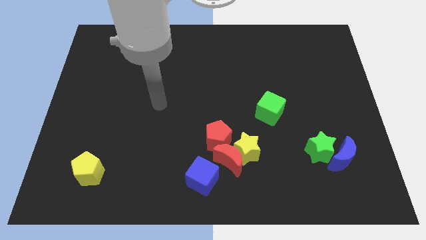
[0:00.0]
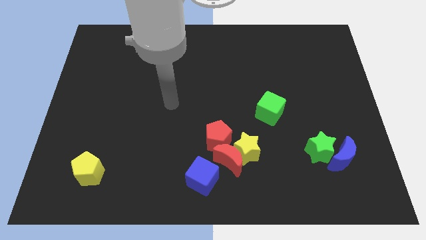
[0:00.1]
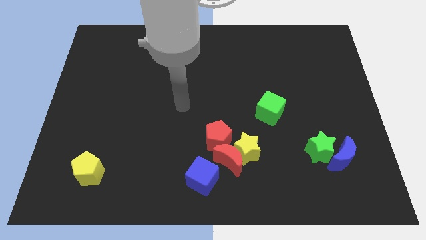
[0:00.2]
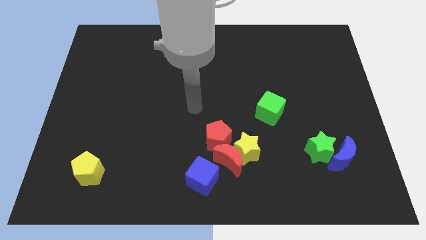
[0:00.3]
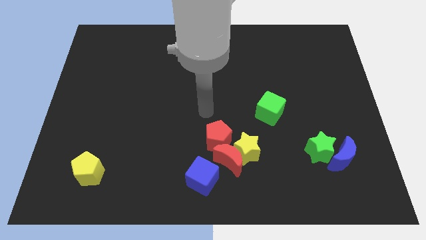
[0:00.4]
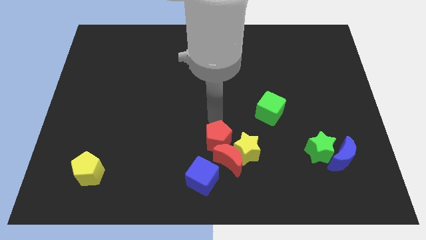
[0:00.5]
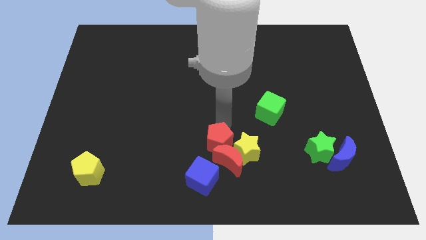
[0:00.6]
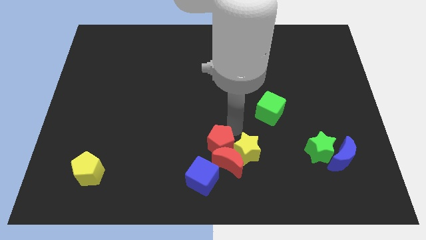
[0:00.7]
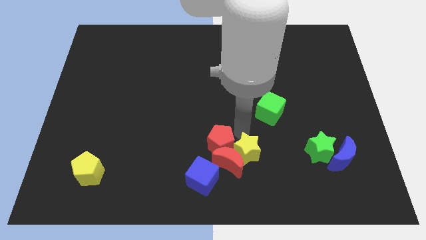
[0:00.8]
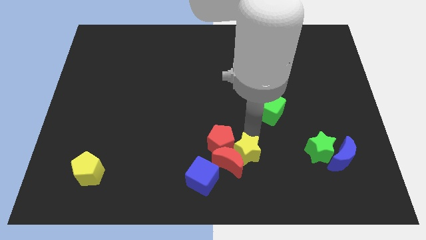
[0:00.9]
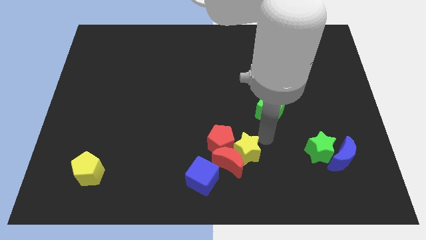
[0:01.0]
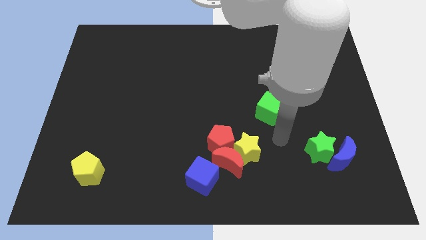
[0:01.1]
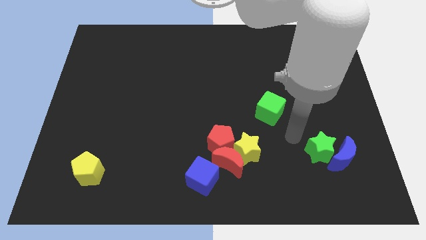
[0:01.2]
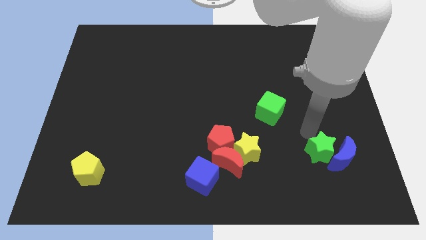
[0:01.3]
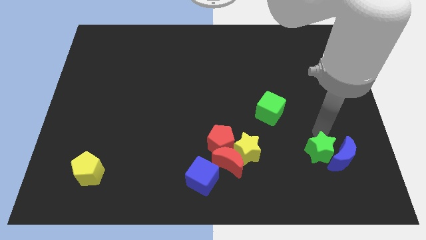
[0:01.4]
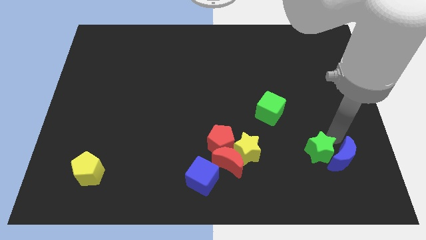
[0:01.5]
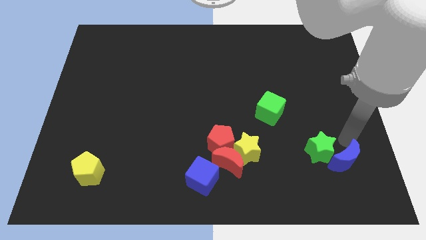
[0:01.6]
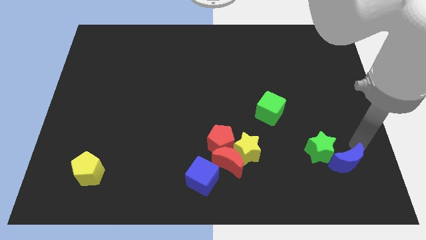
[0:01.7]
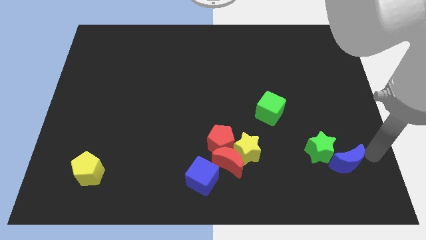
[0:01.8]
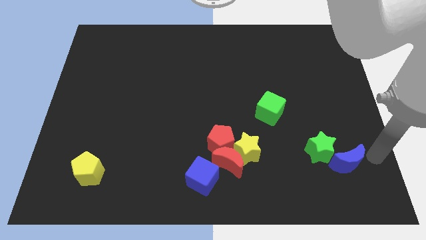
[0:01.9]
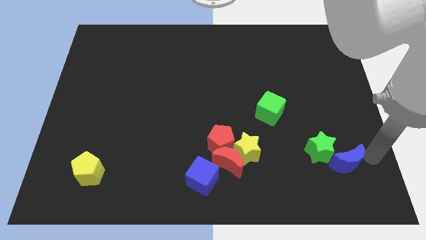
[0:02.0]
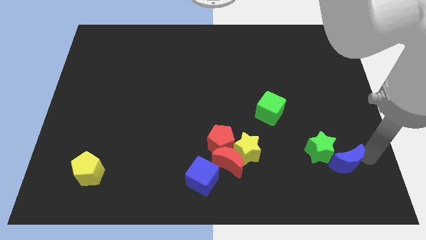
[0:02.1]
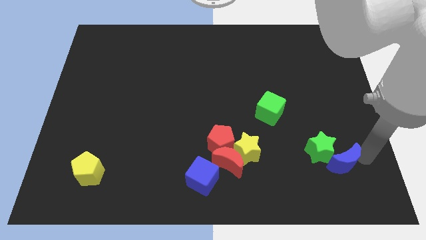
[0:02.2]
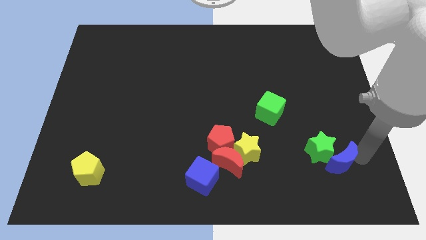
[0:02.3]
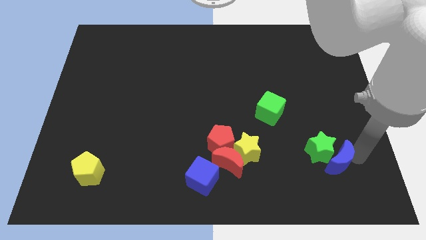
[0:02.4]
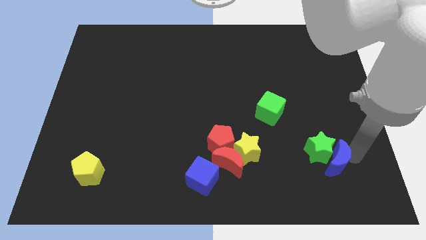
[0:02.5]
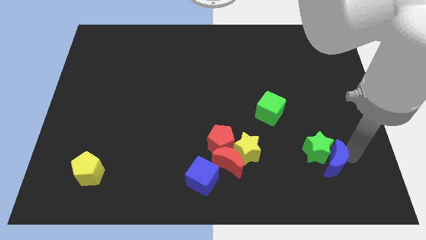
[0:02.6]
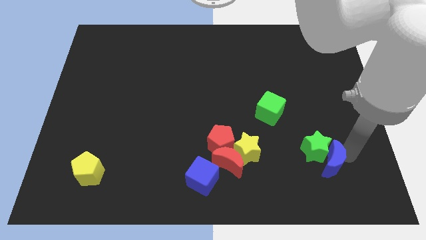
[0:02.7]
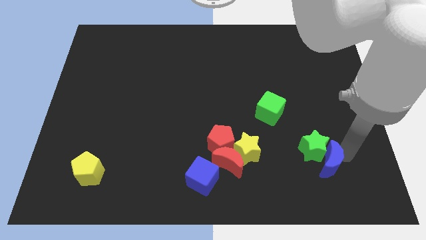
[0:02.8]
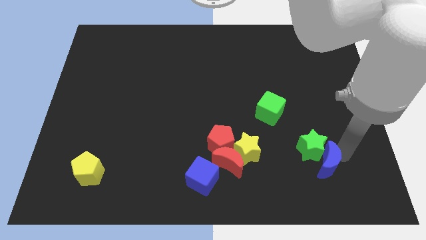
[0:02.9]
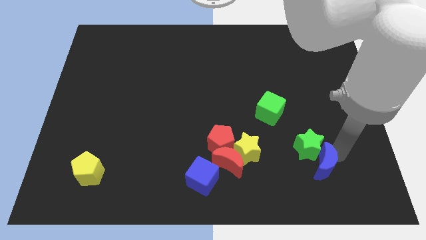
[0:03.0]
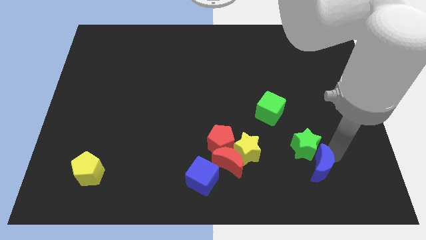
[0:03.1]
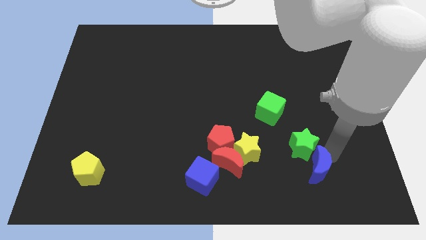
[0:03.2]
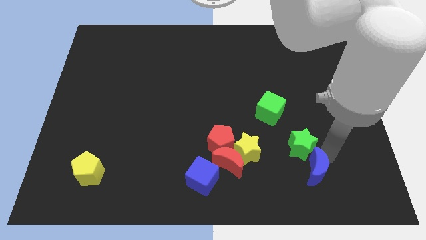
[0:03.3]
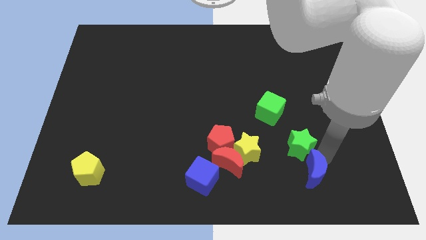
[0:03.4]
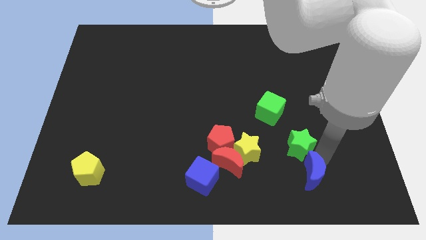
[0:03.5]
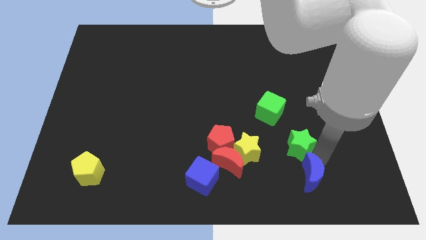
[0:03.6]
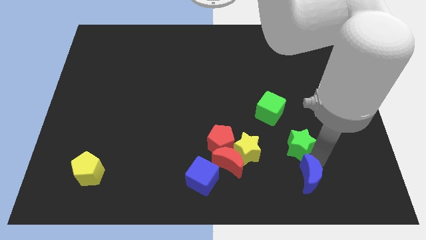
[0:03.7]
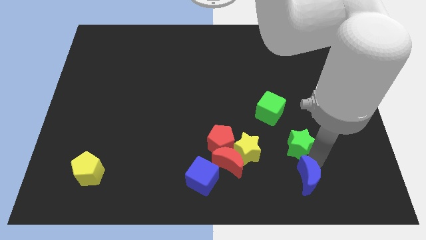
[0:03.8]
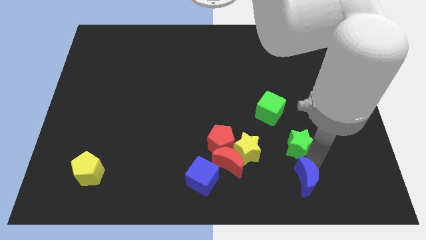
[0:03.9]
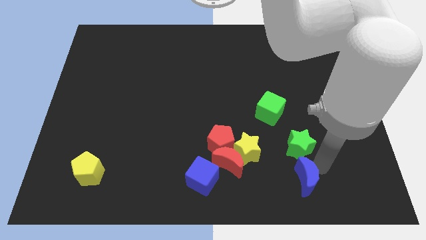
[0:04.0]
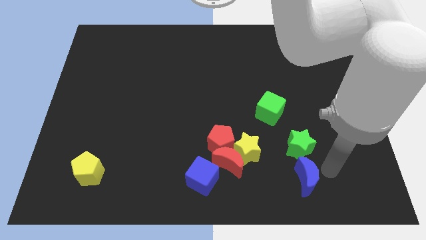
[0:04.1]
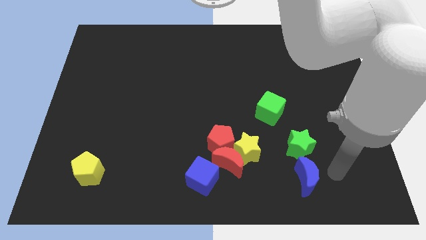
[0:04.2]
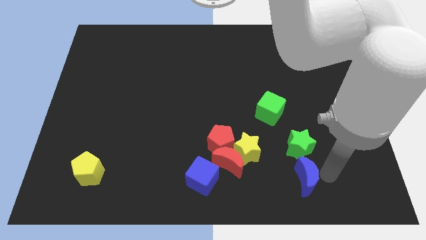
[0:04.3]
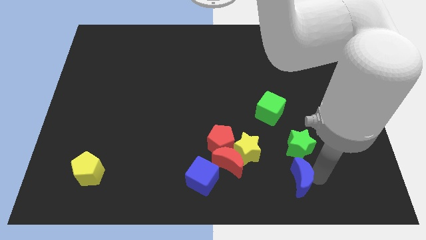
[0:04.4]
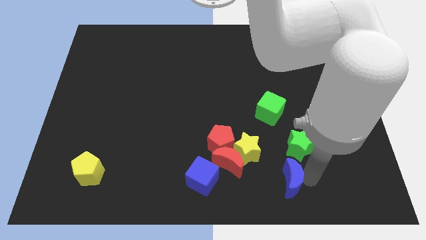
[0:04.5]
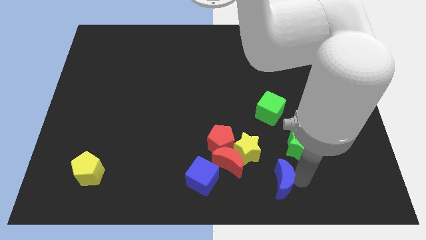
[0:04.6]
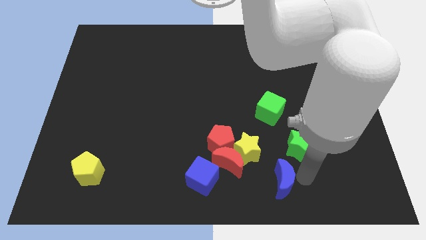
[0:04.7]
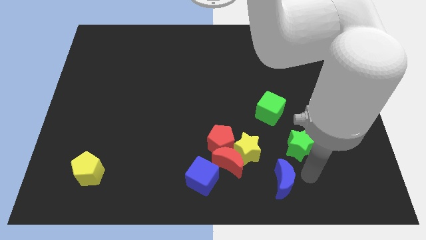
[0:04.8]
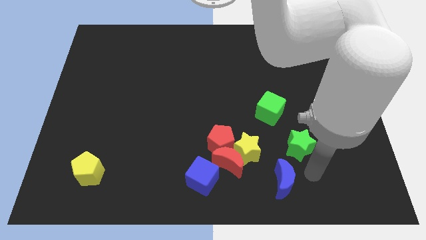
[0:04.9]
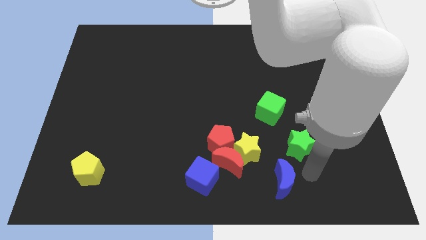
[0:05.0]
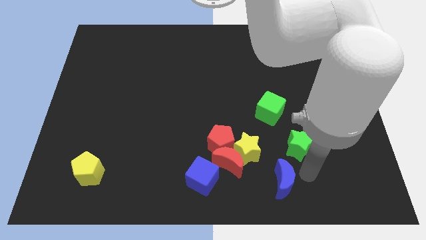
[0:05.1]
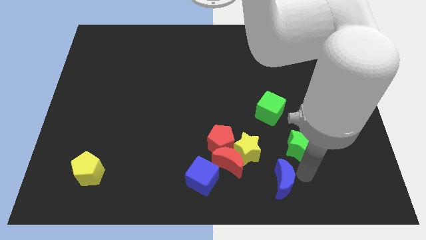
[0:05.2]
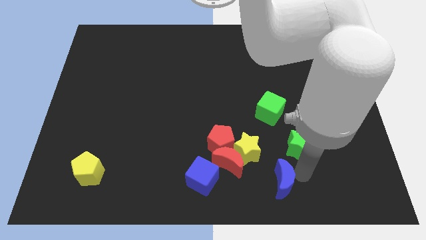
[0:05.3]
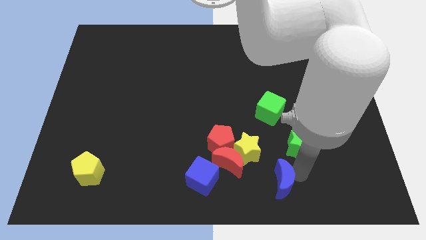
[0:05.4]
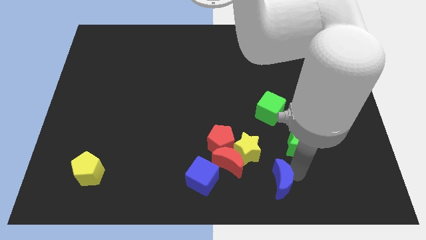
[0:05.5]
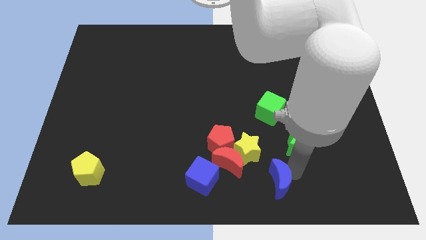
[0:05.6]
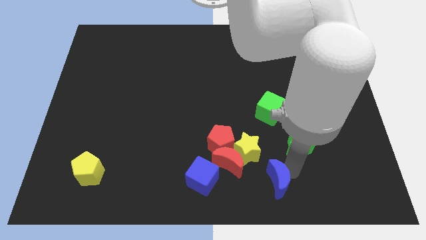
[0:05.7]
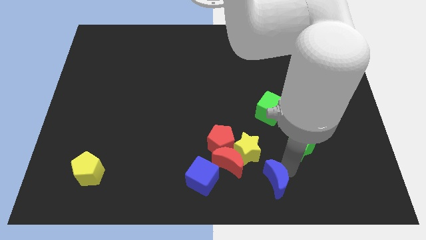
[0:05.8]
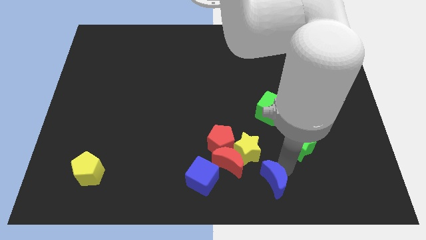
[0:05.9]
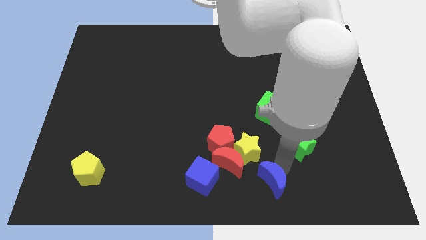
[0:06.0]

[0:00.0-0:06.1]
put the blue moon to the bottom
